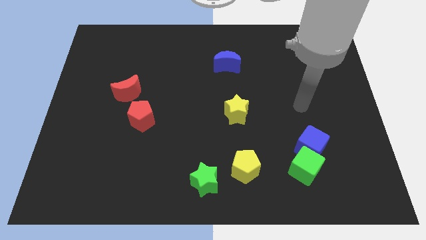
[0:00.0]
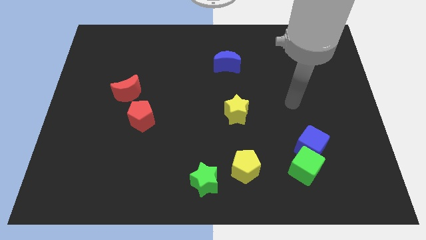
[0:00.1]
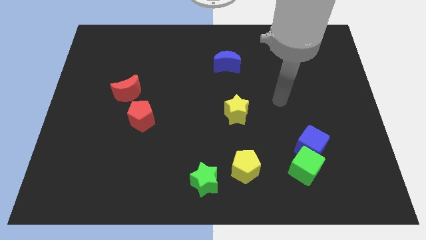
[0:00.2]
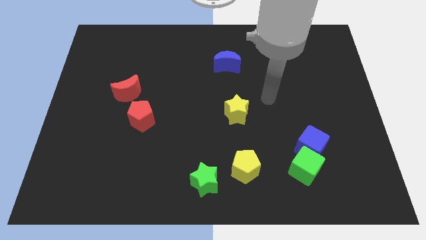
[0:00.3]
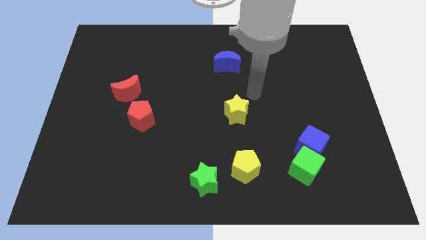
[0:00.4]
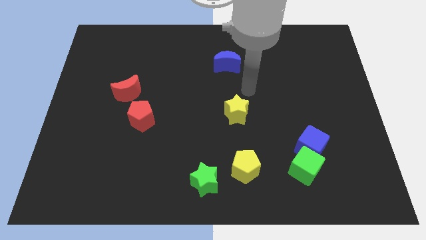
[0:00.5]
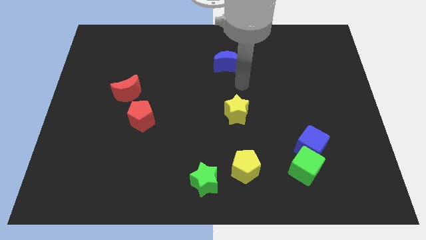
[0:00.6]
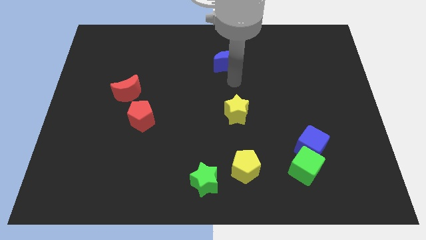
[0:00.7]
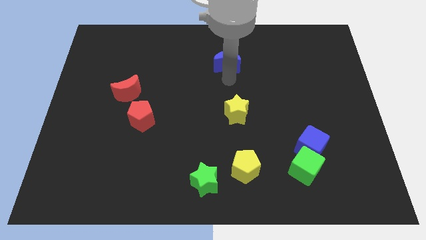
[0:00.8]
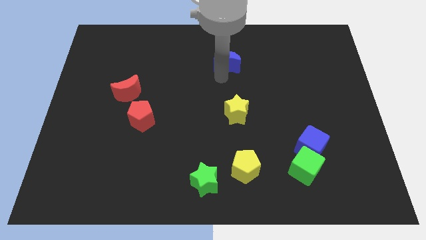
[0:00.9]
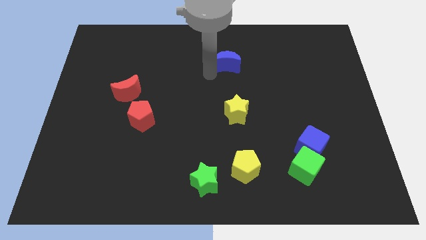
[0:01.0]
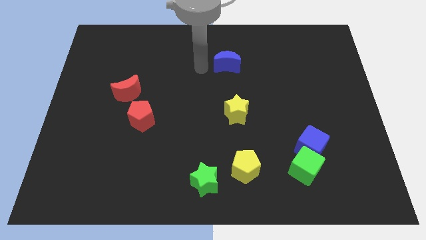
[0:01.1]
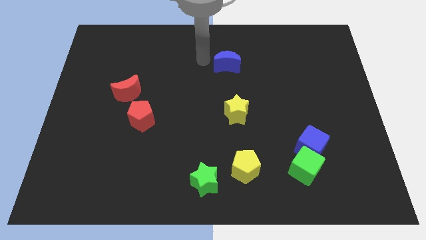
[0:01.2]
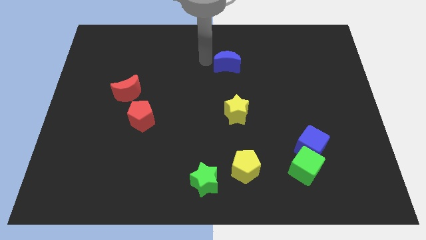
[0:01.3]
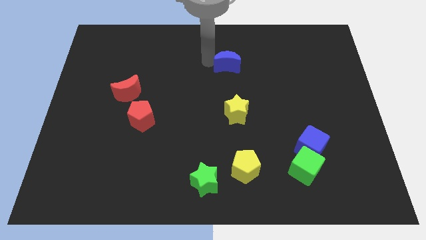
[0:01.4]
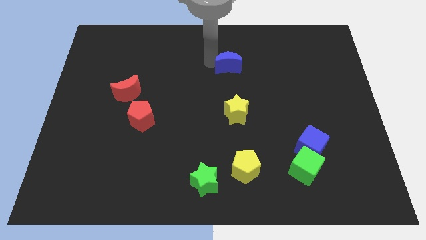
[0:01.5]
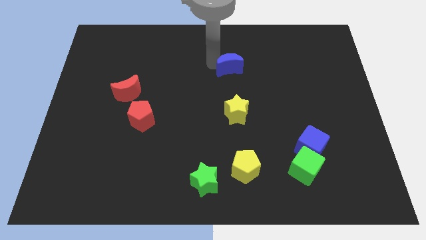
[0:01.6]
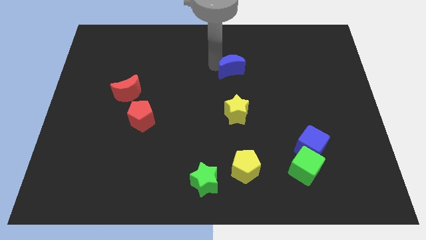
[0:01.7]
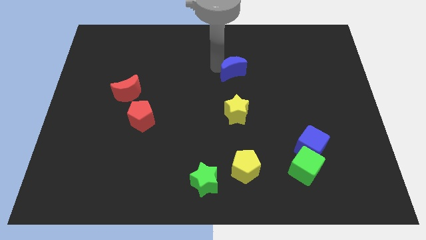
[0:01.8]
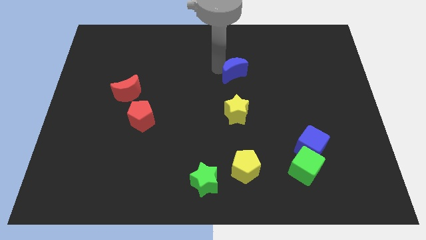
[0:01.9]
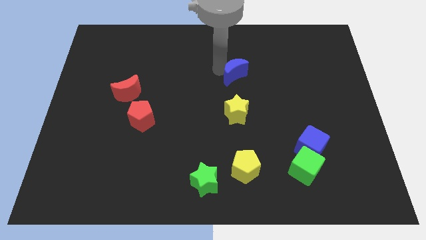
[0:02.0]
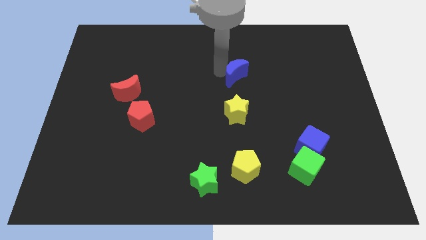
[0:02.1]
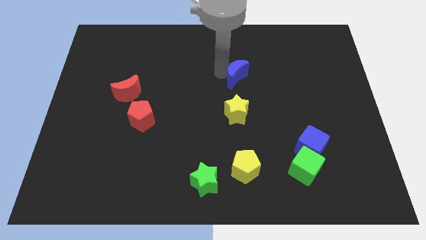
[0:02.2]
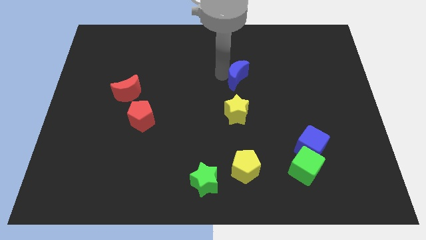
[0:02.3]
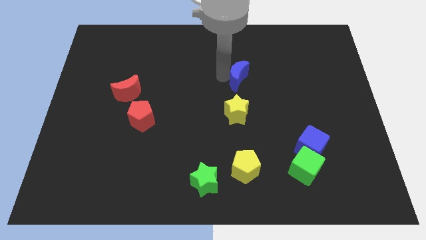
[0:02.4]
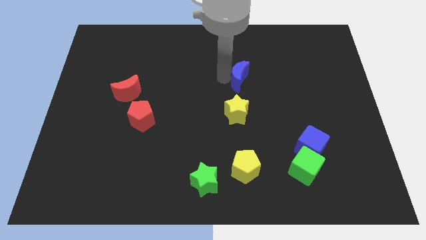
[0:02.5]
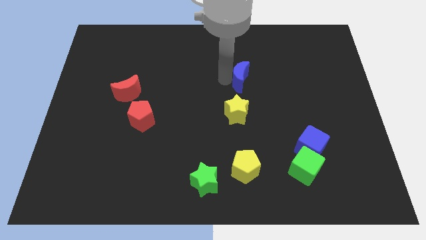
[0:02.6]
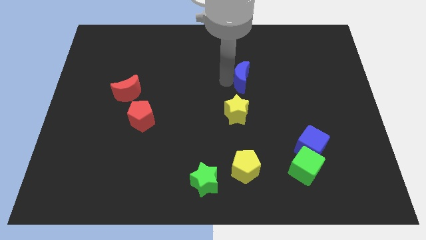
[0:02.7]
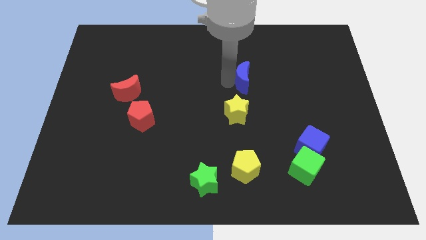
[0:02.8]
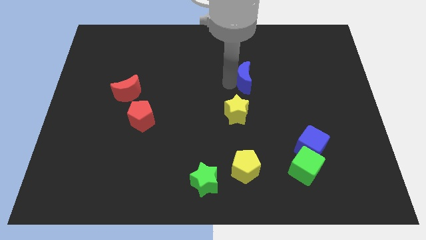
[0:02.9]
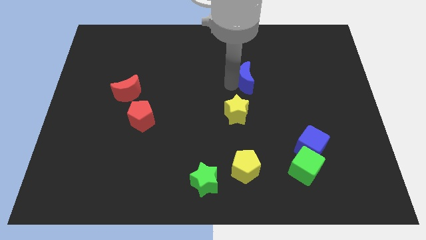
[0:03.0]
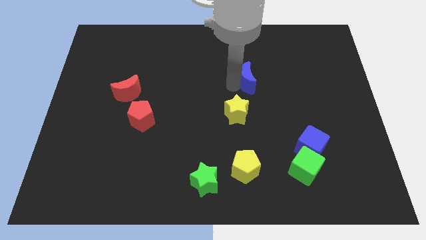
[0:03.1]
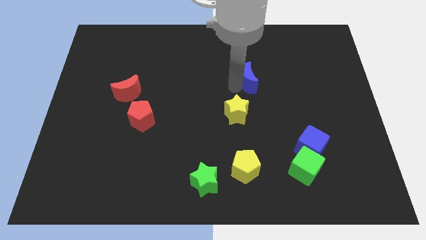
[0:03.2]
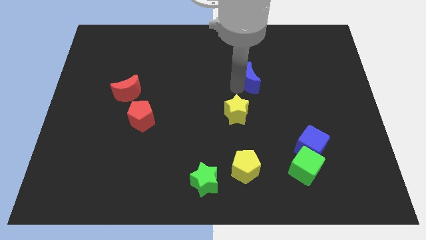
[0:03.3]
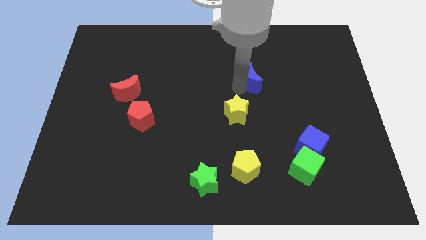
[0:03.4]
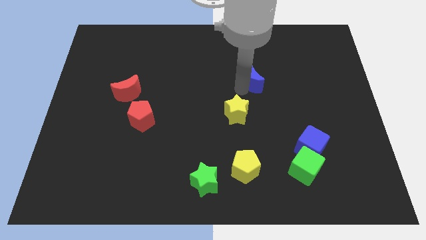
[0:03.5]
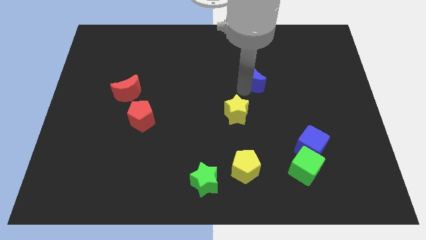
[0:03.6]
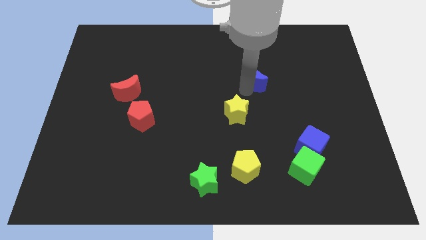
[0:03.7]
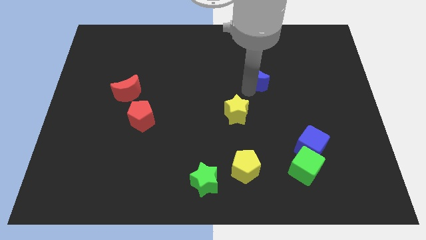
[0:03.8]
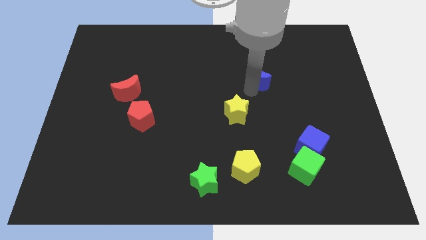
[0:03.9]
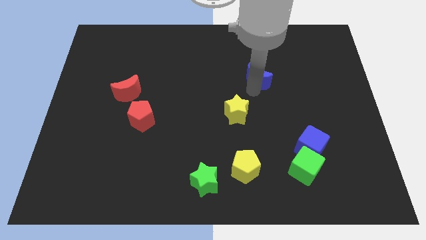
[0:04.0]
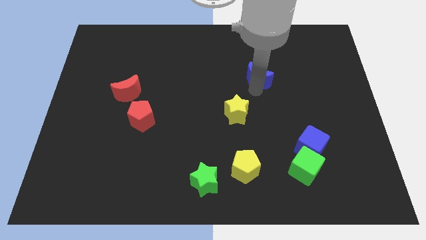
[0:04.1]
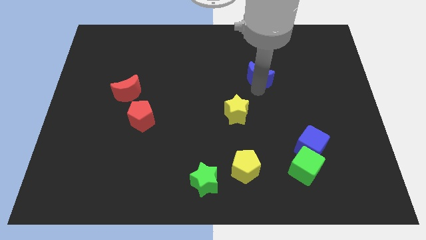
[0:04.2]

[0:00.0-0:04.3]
slightly move the blue moon to the right

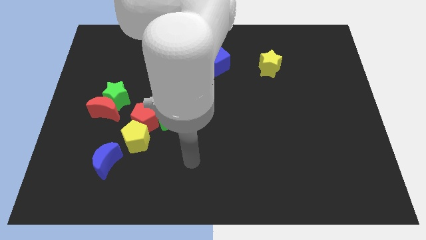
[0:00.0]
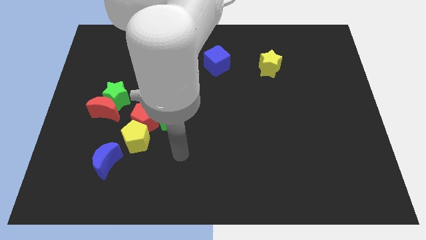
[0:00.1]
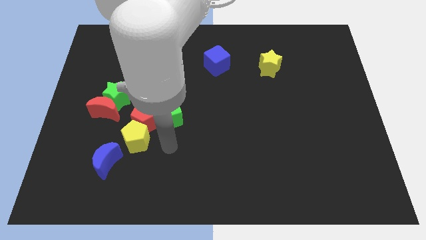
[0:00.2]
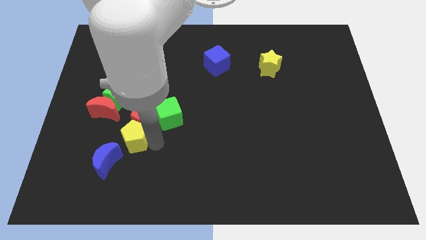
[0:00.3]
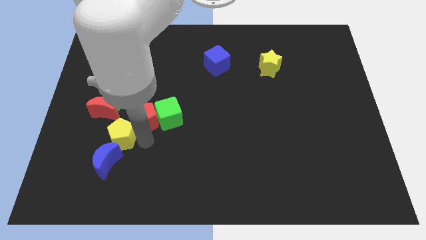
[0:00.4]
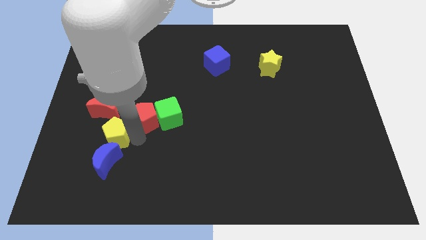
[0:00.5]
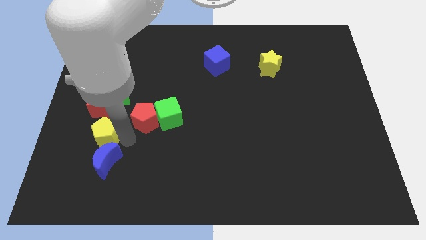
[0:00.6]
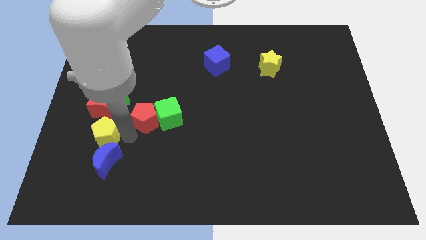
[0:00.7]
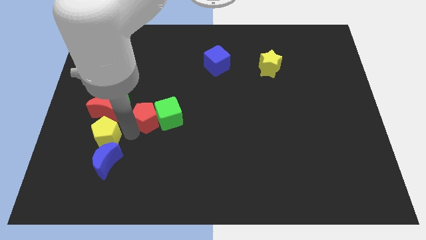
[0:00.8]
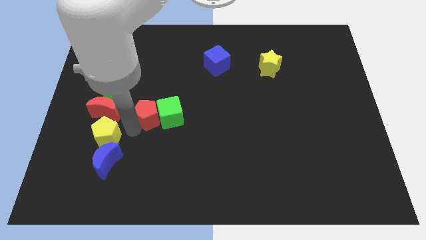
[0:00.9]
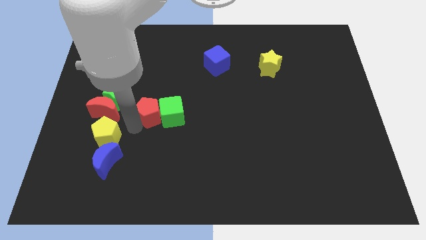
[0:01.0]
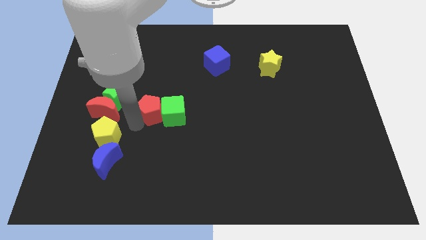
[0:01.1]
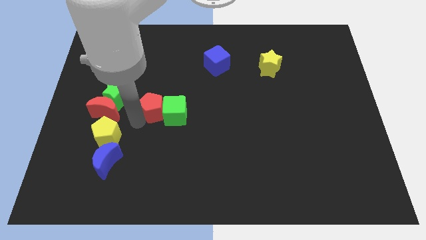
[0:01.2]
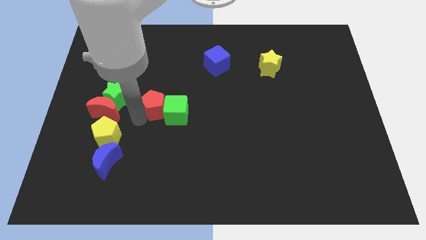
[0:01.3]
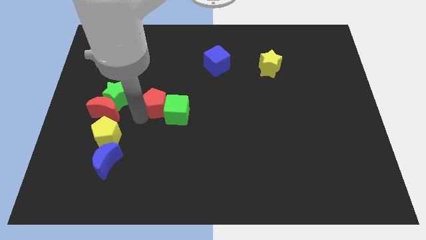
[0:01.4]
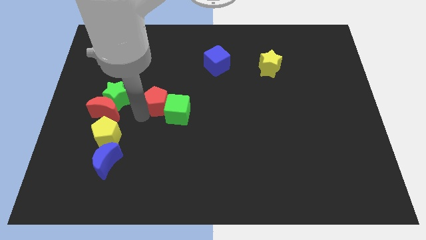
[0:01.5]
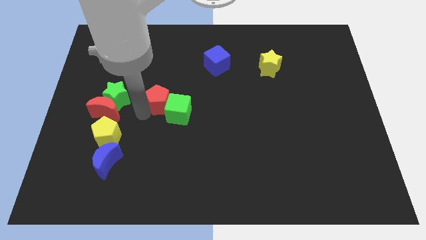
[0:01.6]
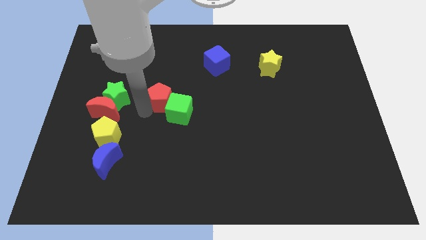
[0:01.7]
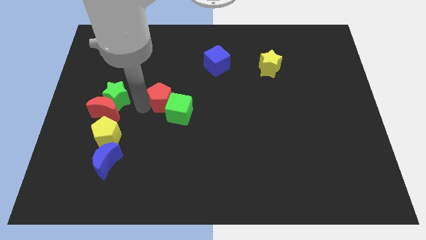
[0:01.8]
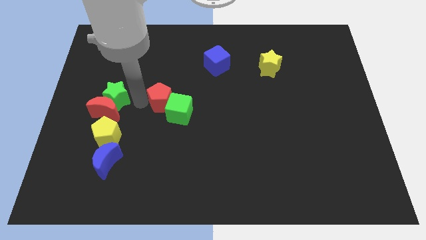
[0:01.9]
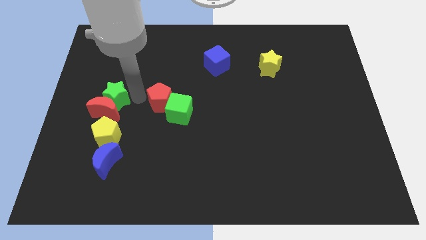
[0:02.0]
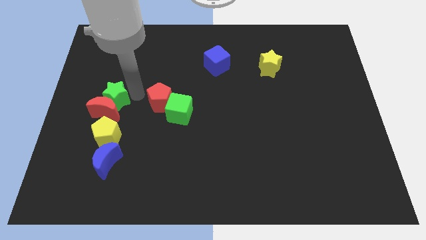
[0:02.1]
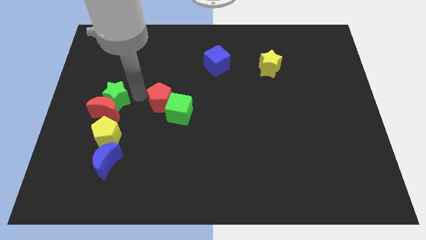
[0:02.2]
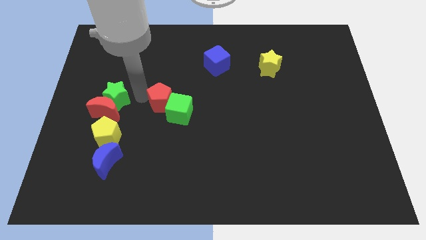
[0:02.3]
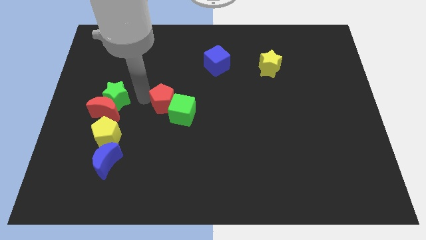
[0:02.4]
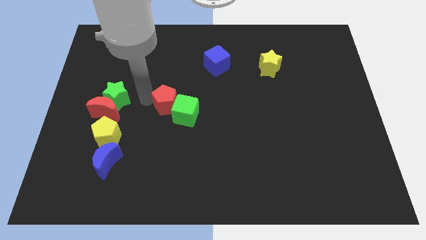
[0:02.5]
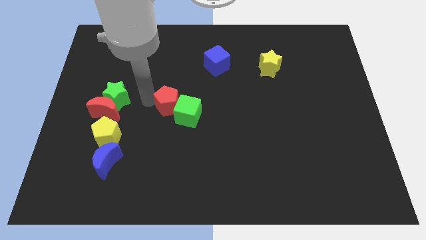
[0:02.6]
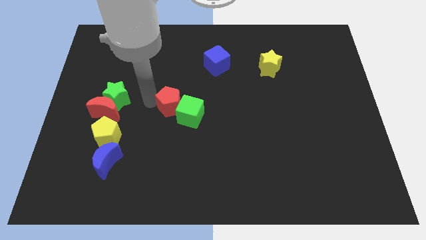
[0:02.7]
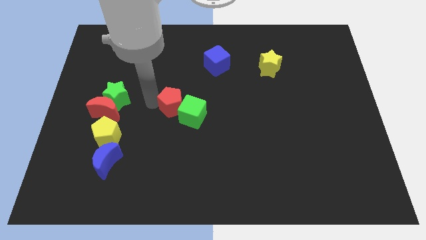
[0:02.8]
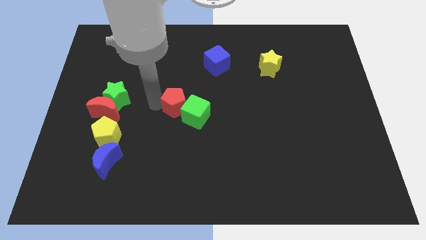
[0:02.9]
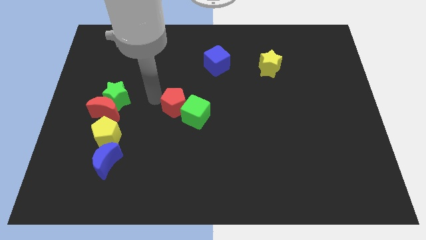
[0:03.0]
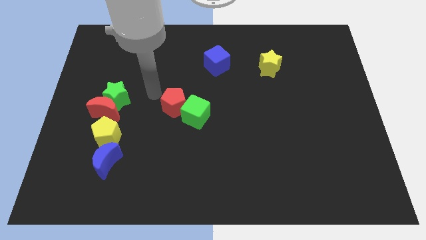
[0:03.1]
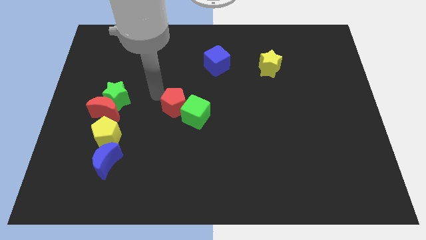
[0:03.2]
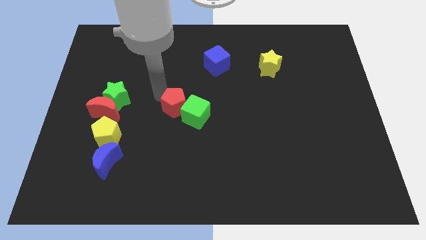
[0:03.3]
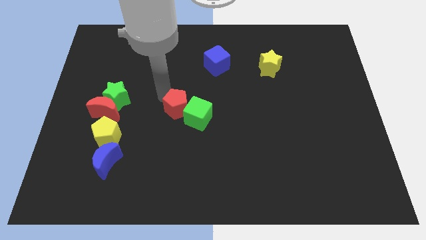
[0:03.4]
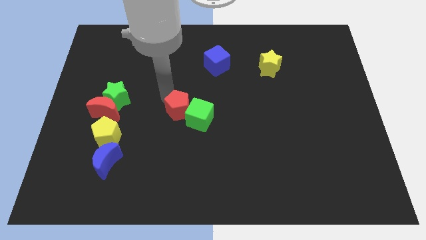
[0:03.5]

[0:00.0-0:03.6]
push the red pentagon somewhat to the right
